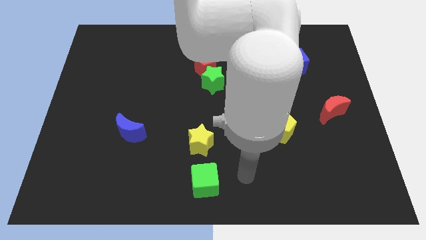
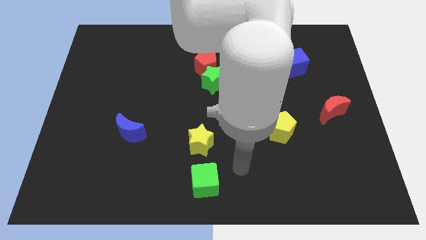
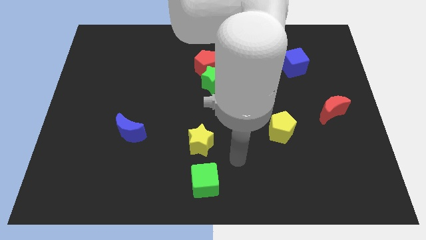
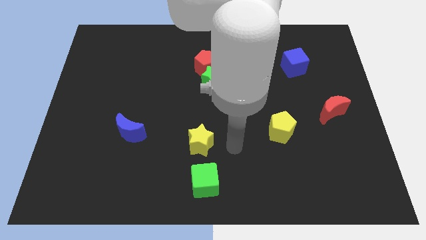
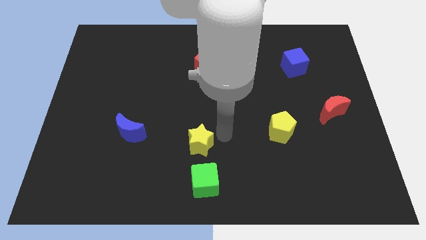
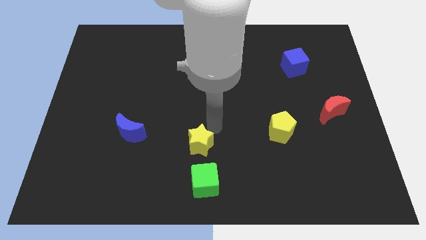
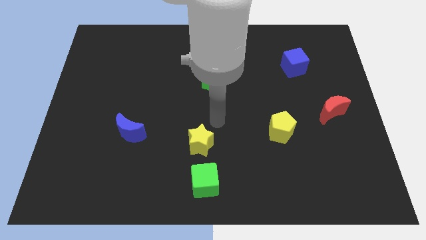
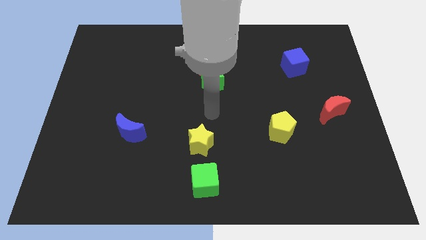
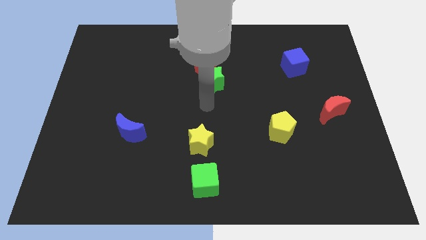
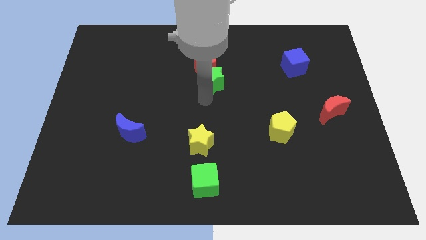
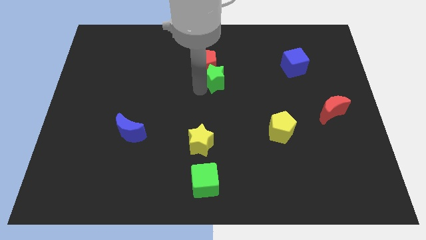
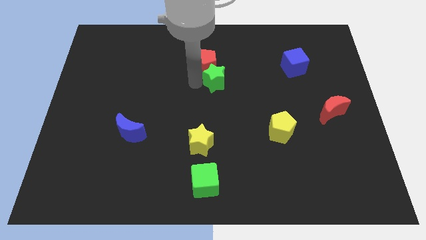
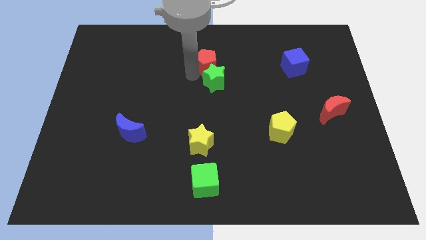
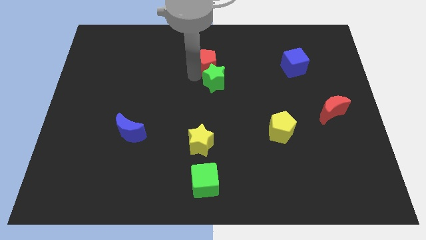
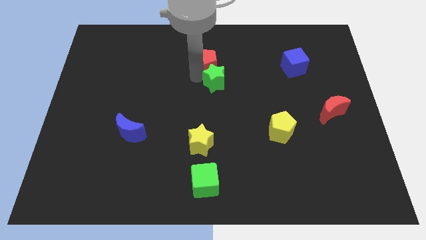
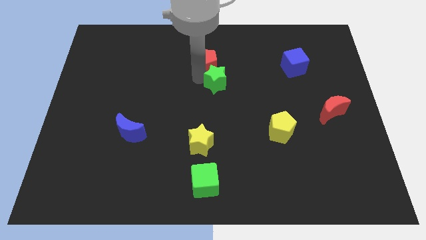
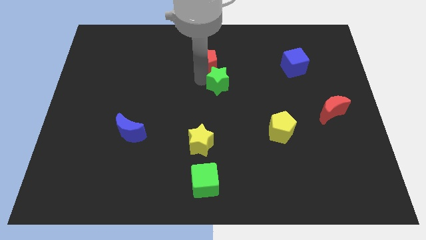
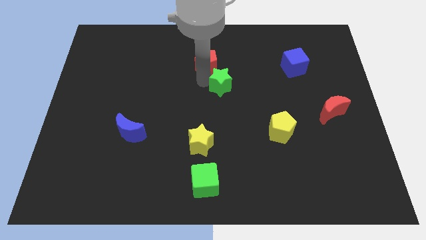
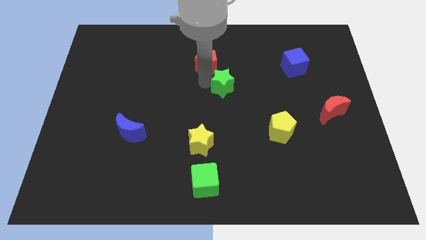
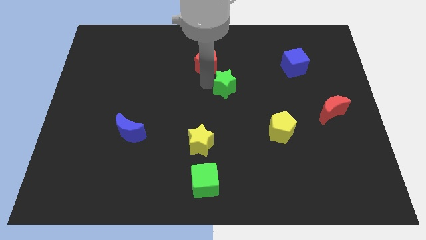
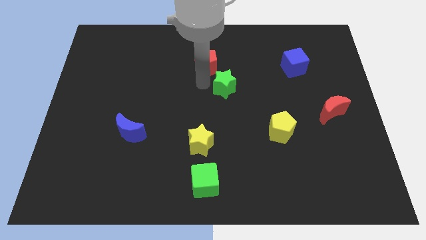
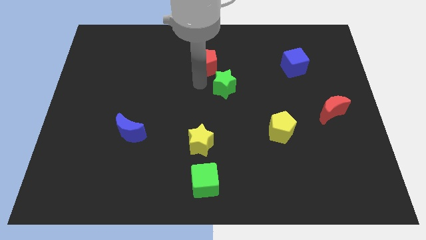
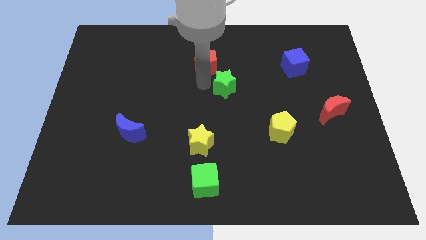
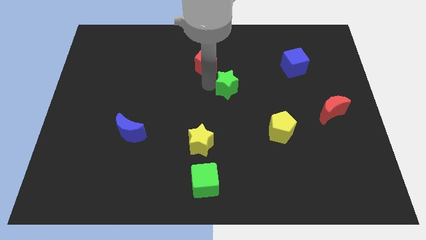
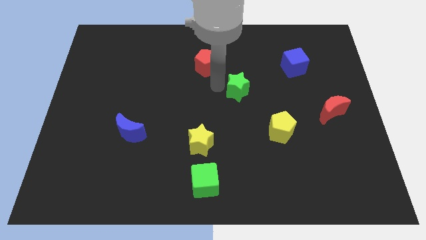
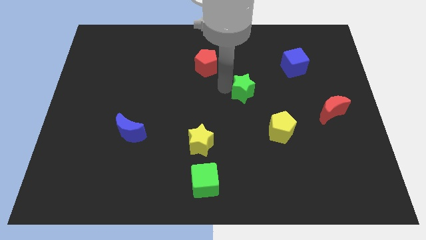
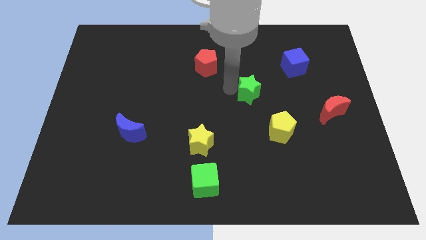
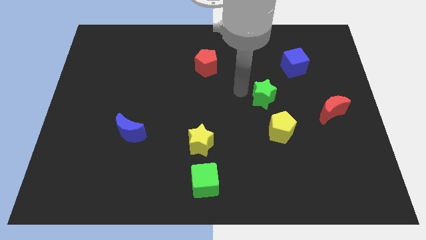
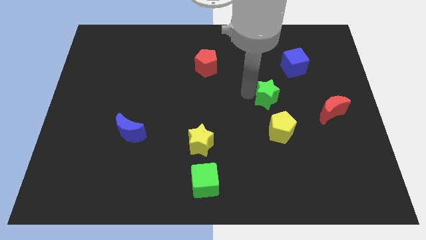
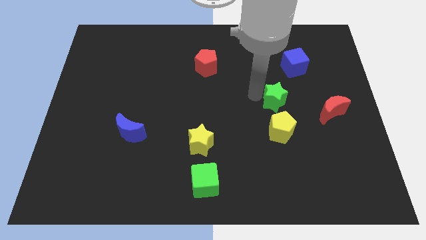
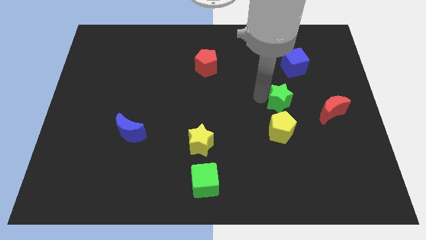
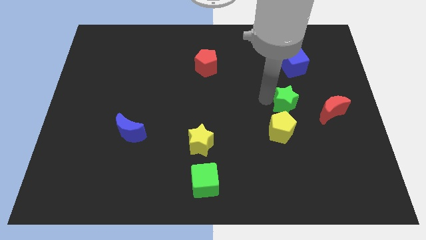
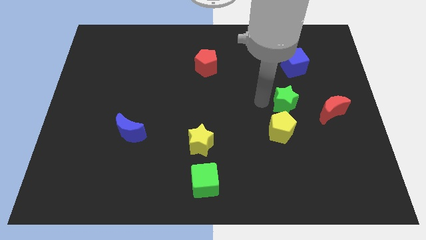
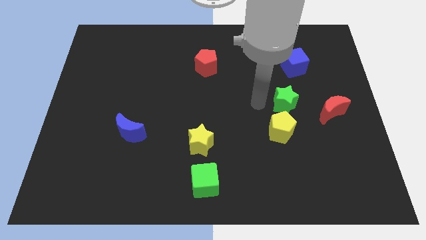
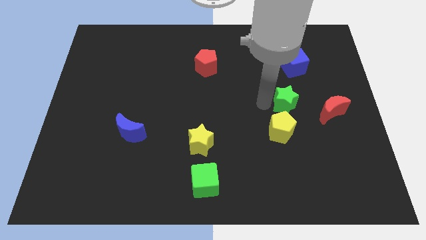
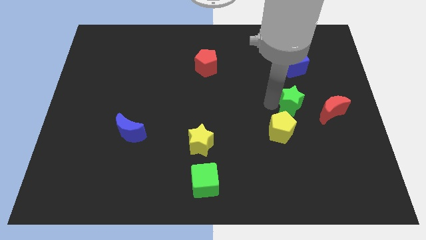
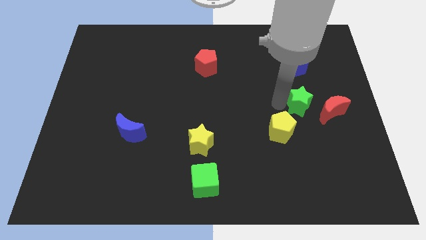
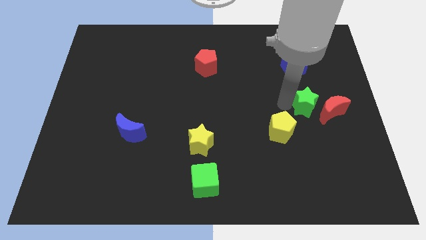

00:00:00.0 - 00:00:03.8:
move the green star close to the red moon

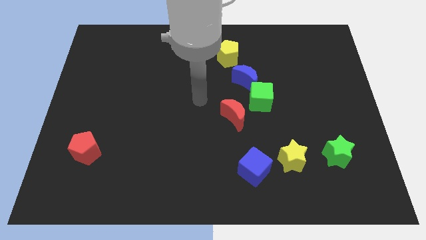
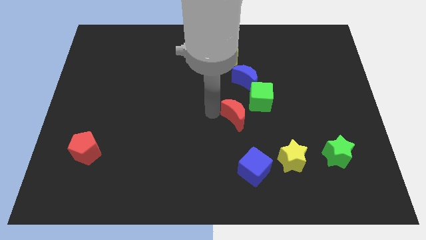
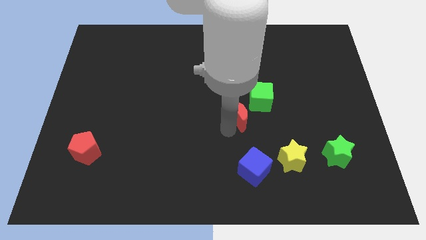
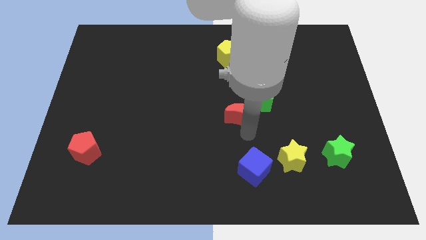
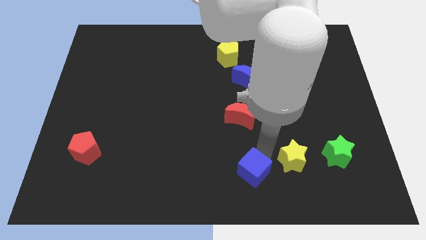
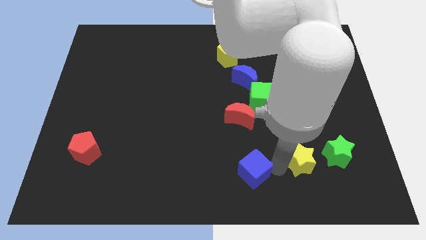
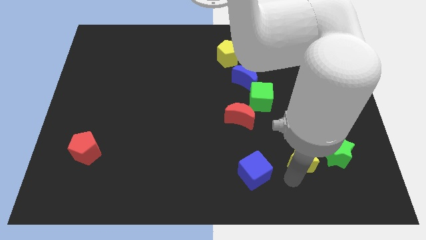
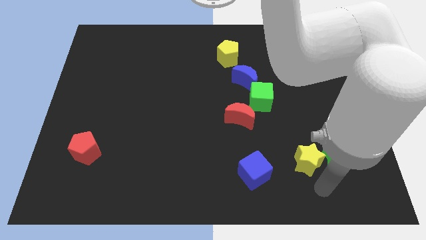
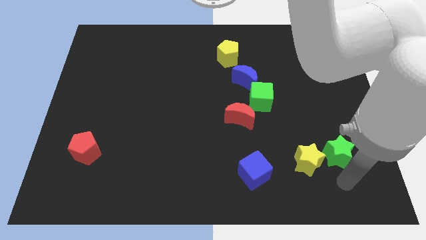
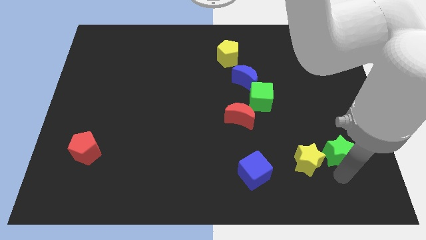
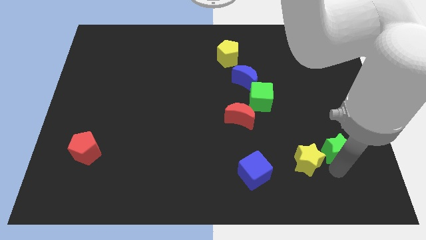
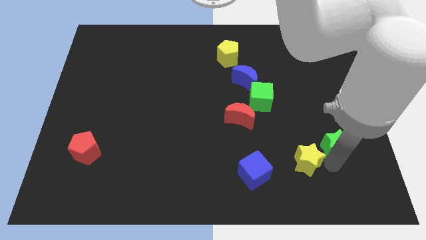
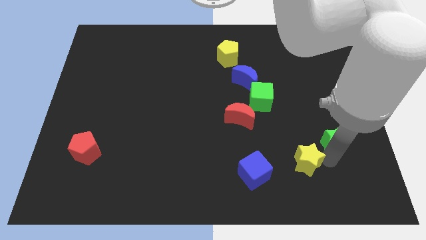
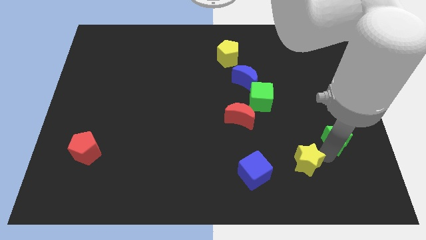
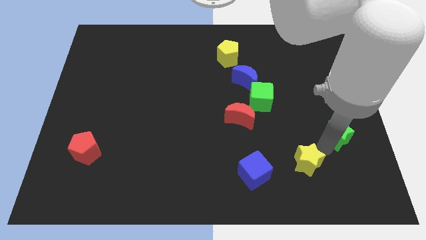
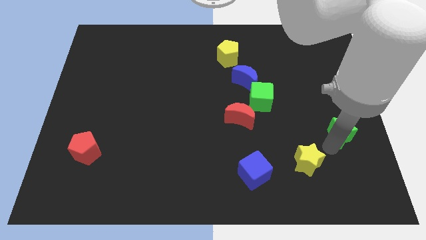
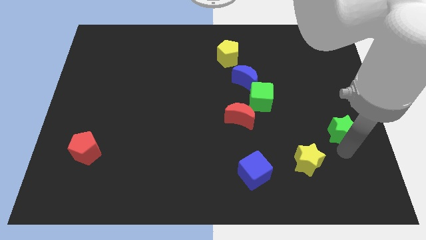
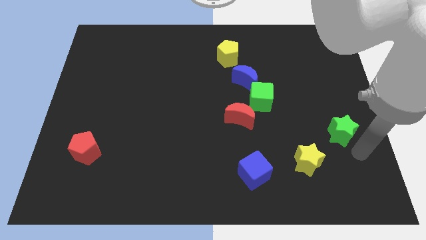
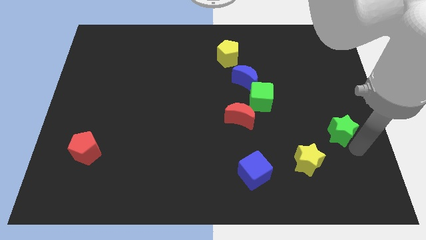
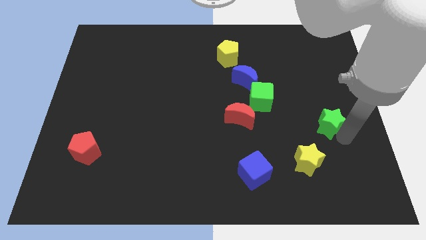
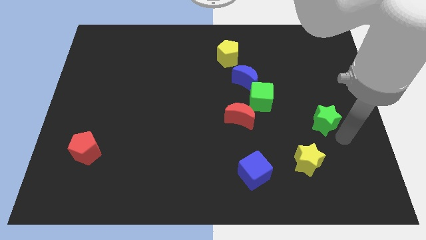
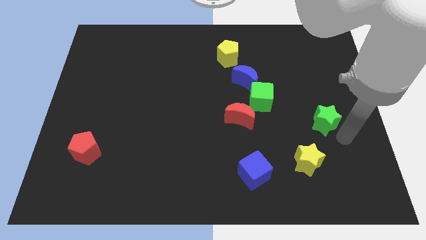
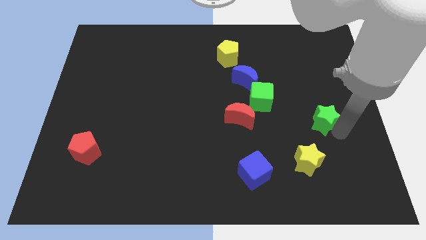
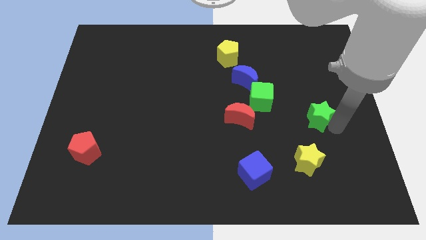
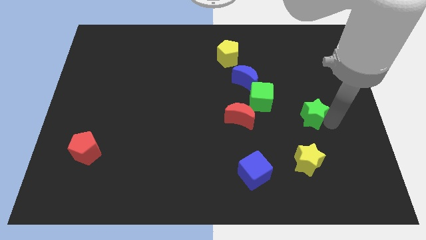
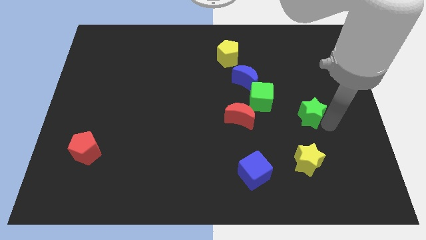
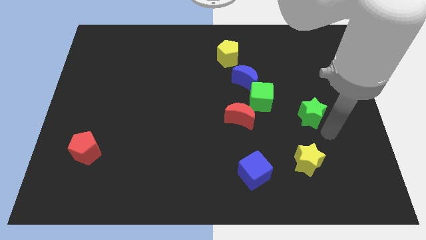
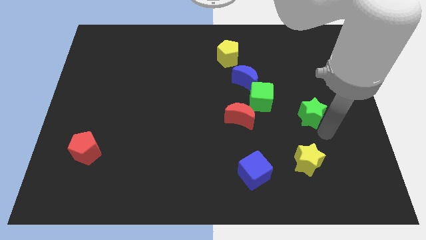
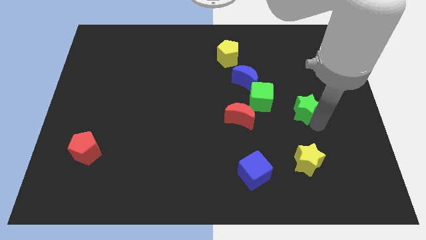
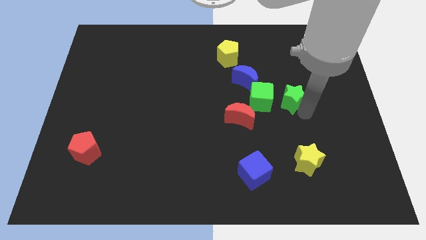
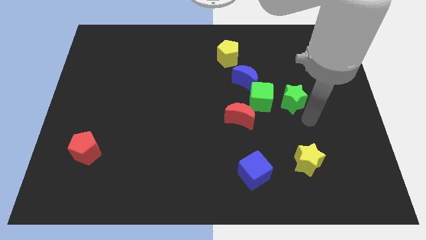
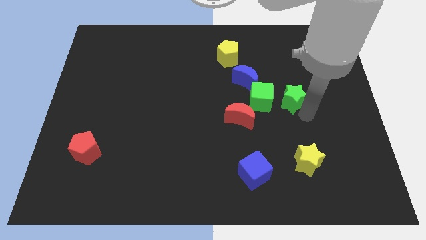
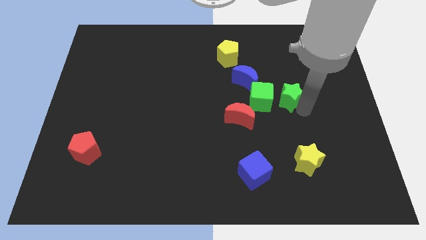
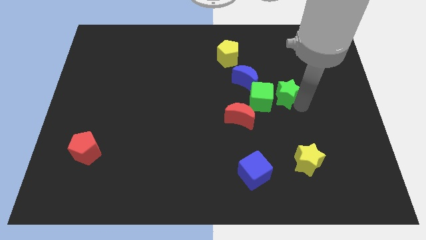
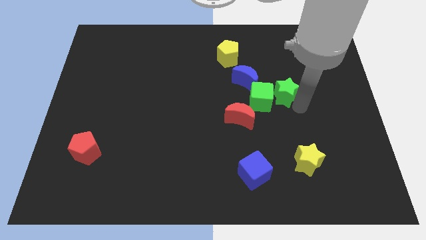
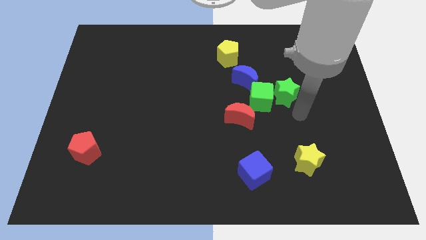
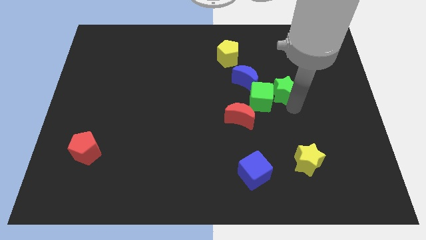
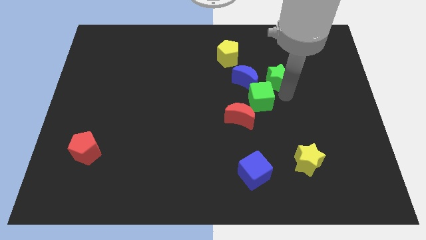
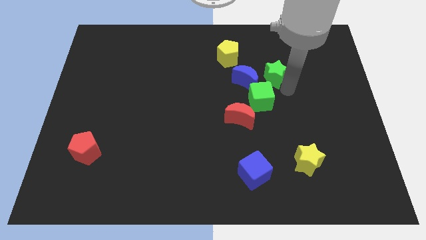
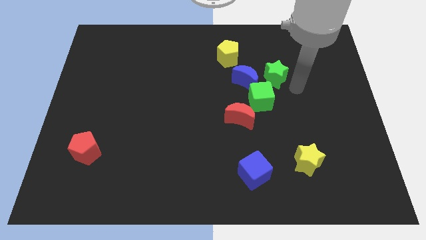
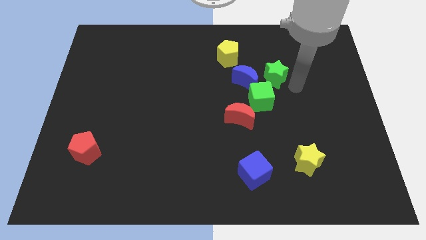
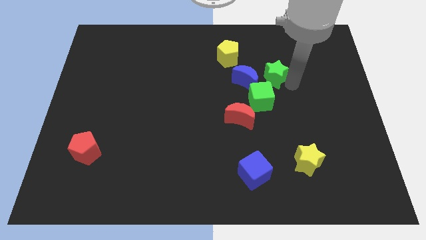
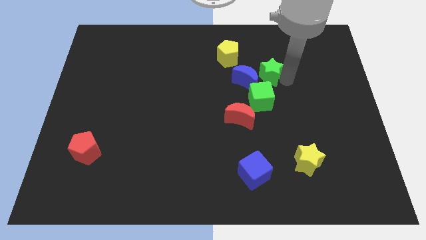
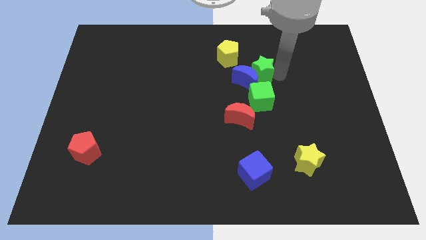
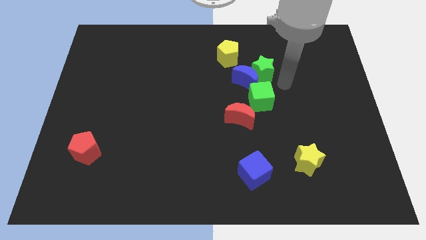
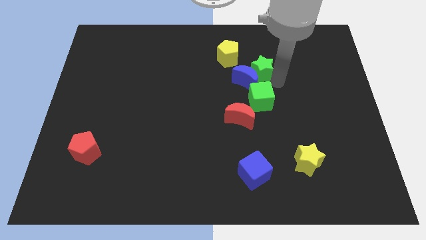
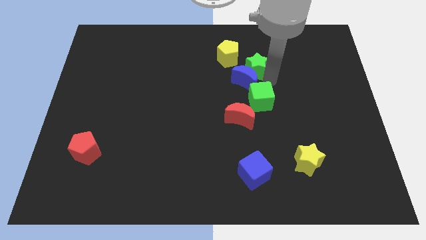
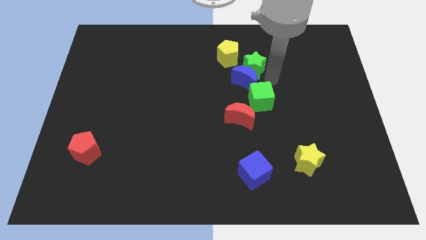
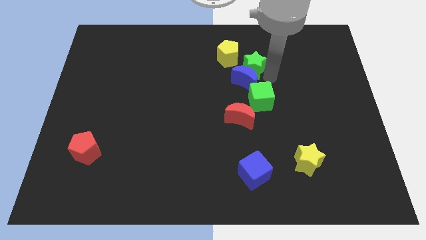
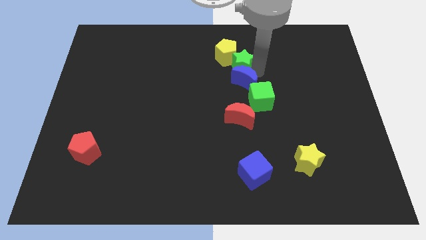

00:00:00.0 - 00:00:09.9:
put the green star next to the yellow pentagon
